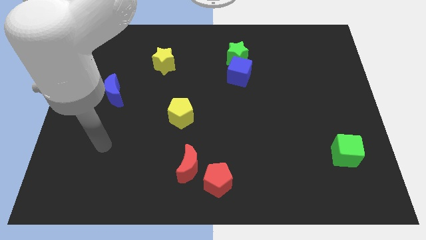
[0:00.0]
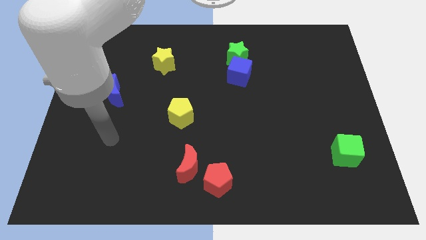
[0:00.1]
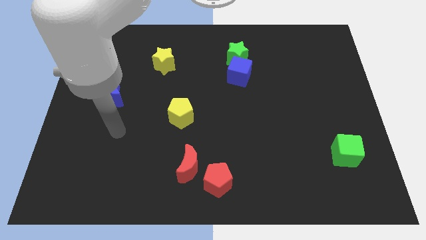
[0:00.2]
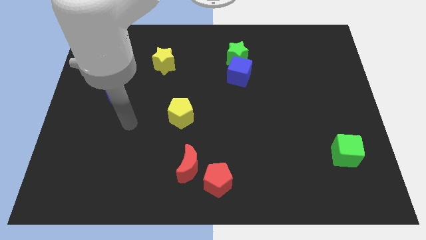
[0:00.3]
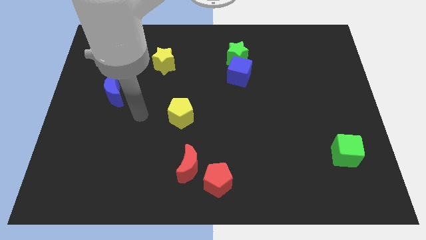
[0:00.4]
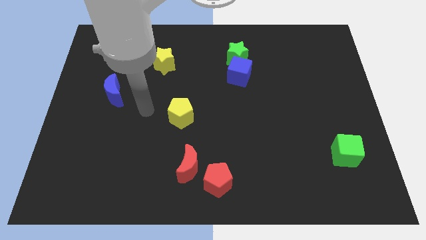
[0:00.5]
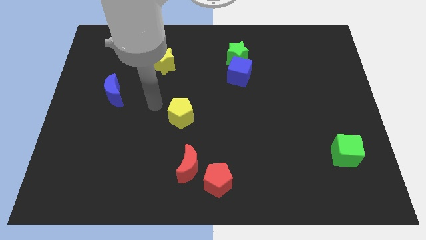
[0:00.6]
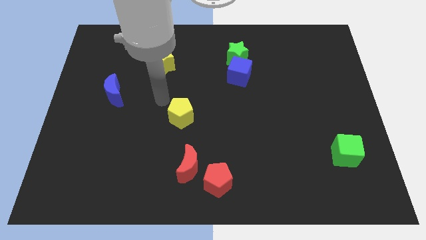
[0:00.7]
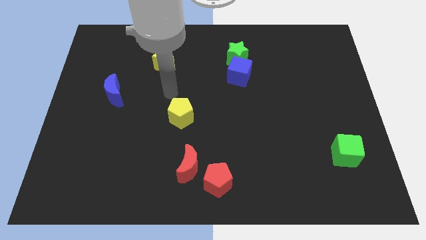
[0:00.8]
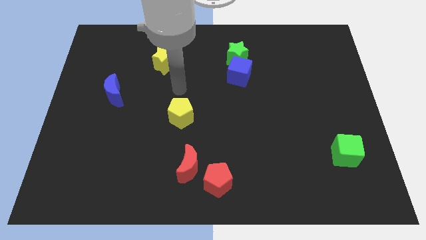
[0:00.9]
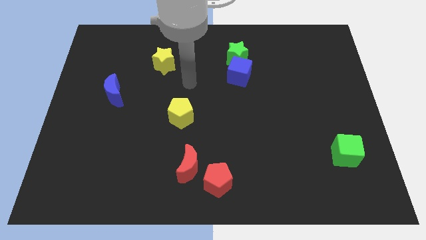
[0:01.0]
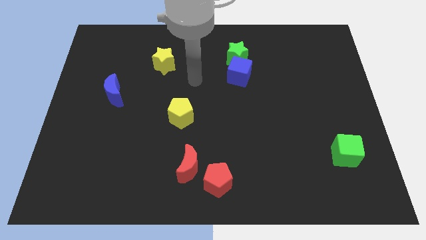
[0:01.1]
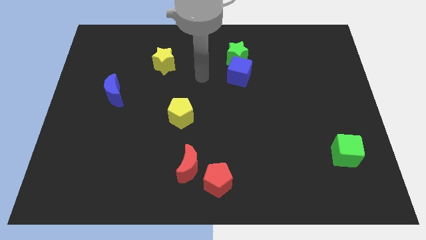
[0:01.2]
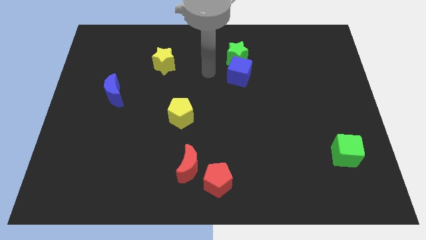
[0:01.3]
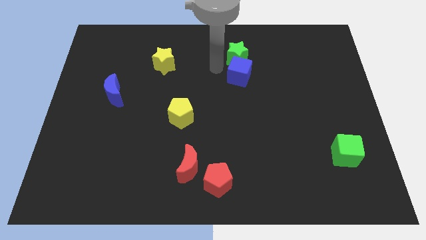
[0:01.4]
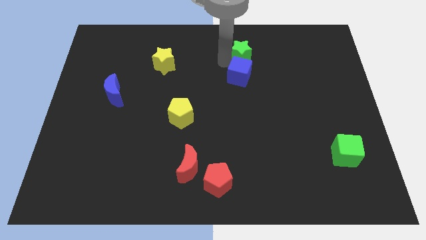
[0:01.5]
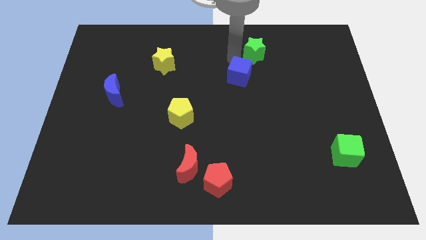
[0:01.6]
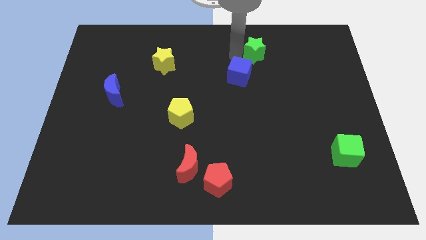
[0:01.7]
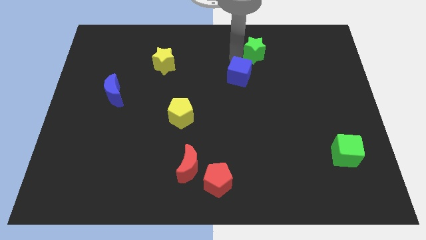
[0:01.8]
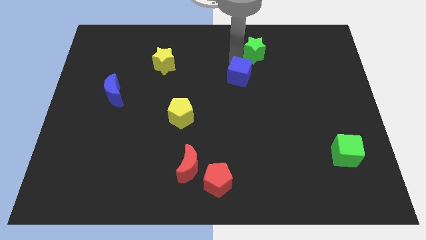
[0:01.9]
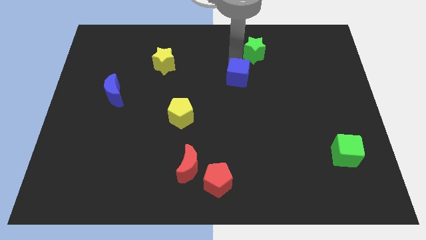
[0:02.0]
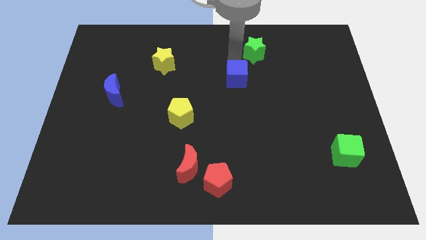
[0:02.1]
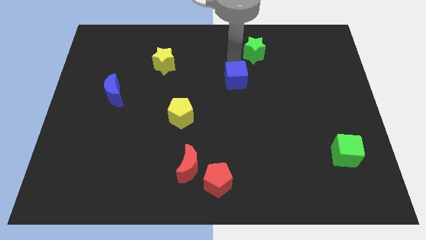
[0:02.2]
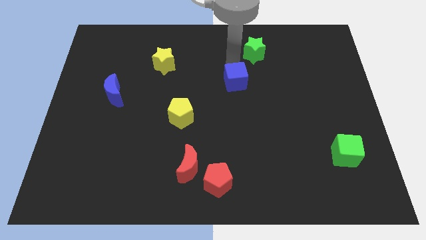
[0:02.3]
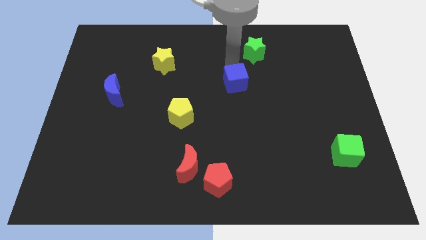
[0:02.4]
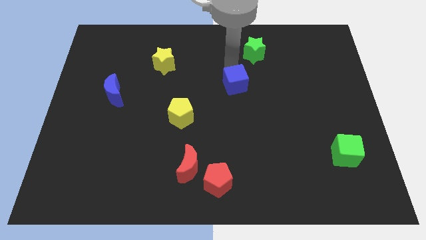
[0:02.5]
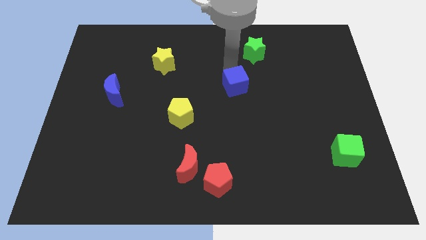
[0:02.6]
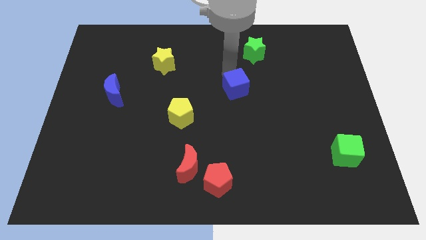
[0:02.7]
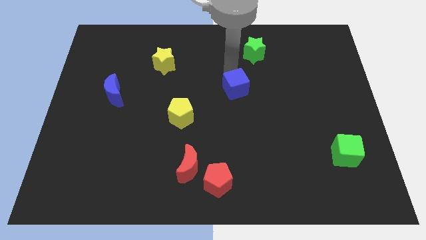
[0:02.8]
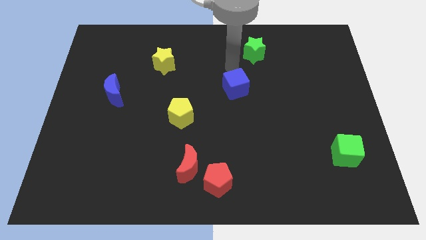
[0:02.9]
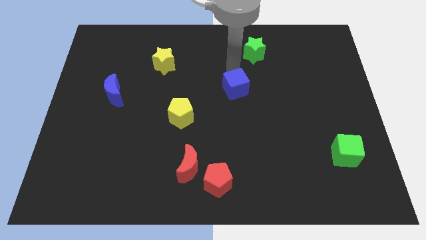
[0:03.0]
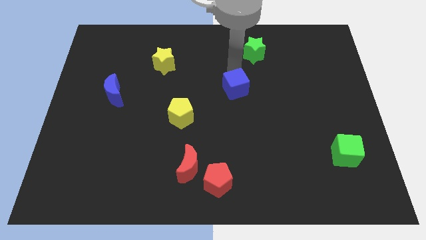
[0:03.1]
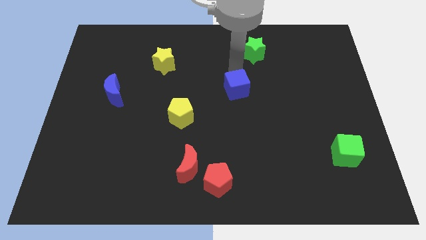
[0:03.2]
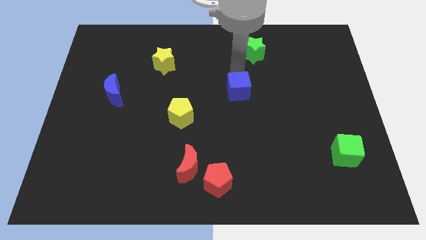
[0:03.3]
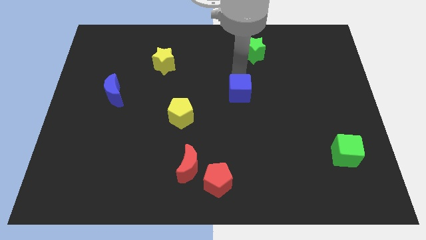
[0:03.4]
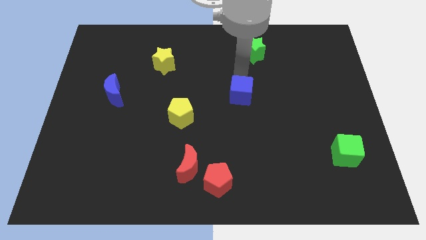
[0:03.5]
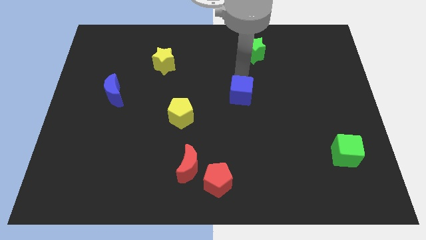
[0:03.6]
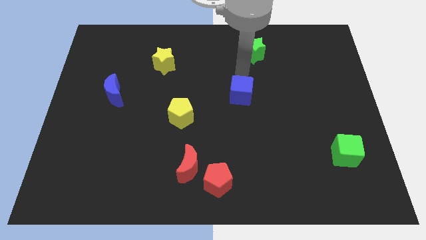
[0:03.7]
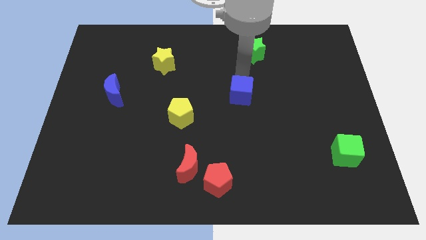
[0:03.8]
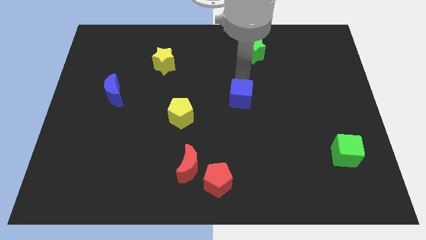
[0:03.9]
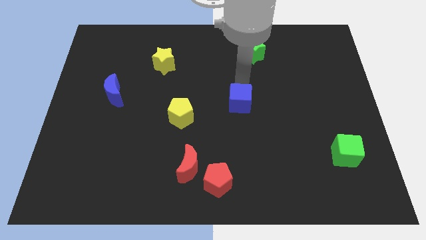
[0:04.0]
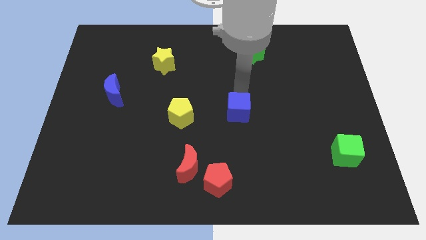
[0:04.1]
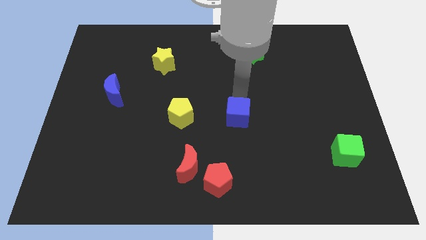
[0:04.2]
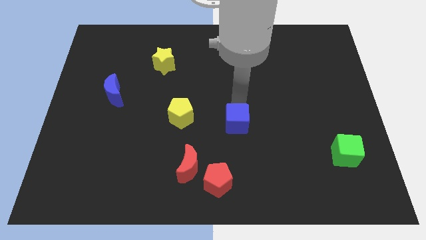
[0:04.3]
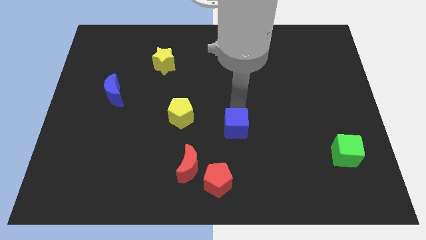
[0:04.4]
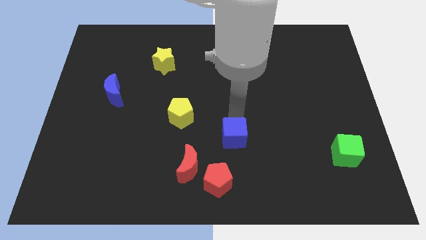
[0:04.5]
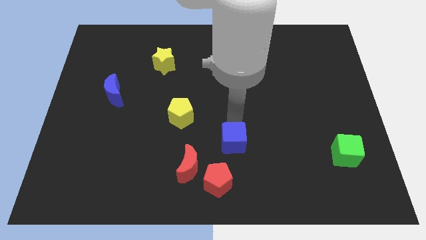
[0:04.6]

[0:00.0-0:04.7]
put the blue cube to the top right side of the red pentagon

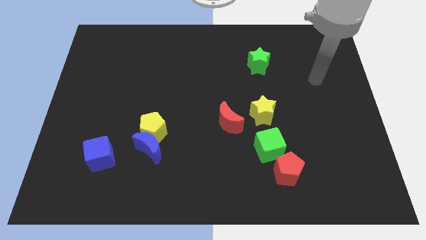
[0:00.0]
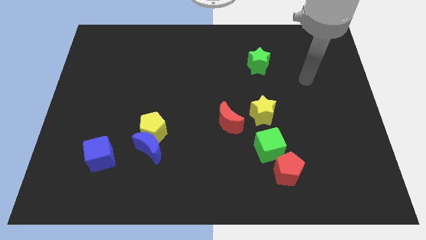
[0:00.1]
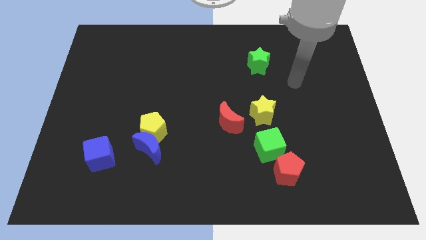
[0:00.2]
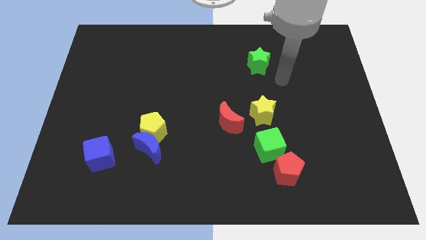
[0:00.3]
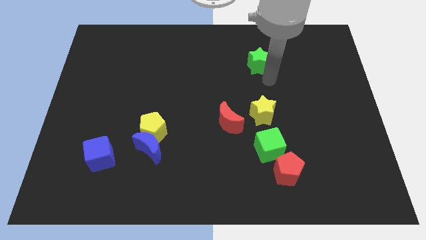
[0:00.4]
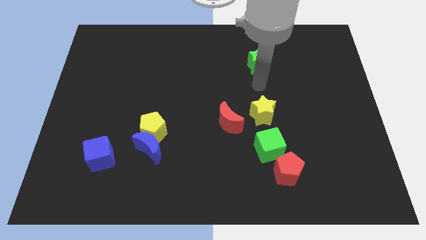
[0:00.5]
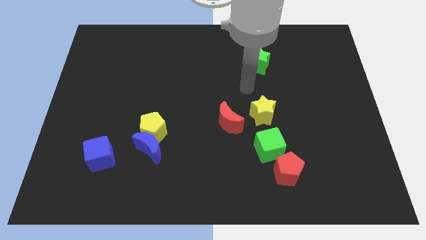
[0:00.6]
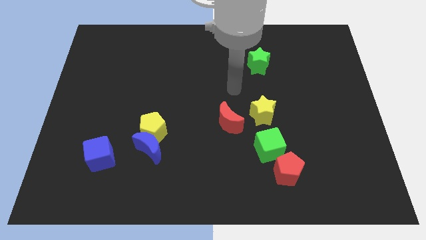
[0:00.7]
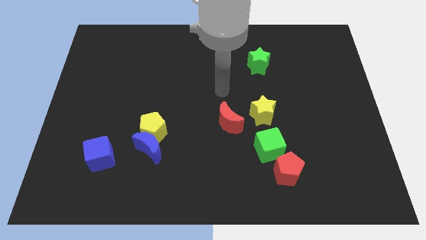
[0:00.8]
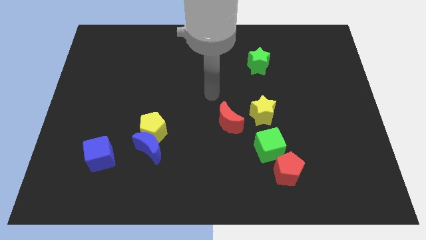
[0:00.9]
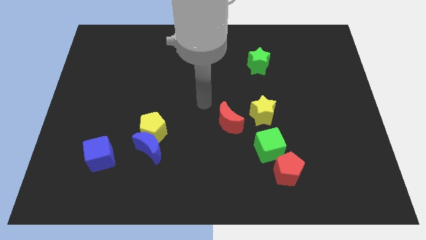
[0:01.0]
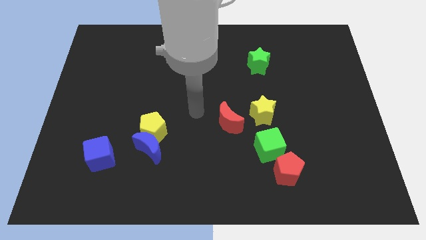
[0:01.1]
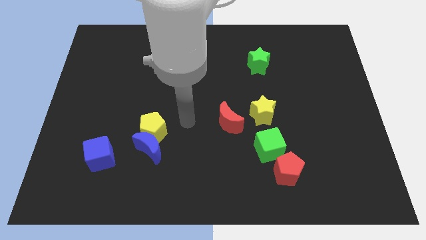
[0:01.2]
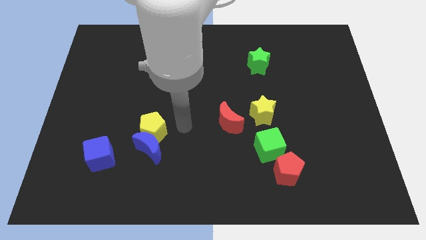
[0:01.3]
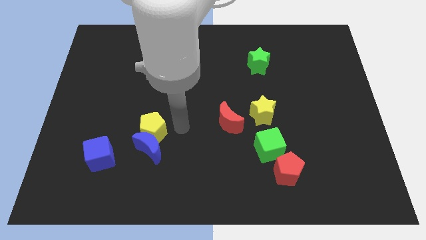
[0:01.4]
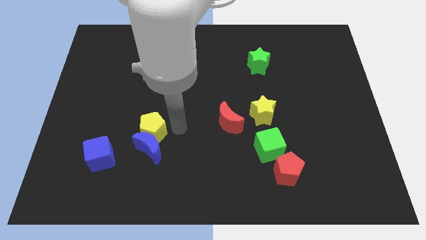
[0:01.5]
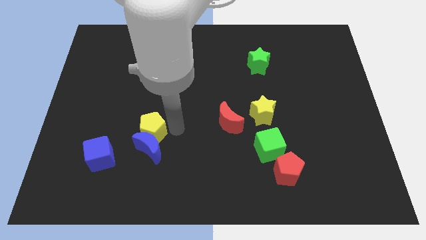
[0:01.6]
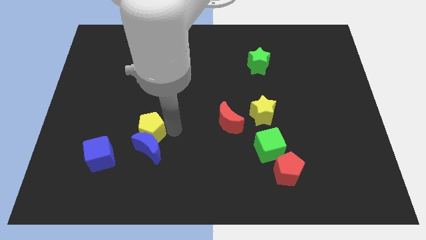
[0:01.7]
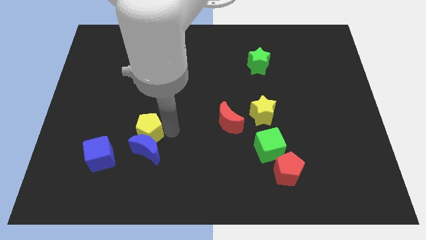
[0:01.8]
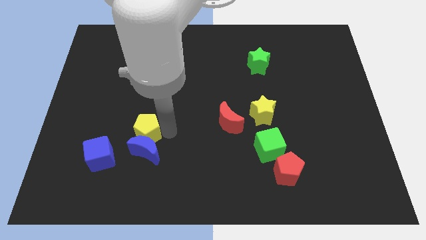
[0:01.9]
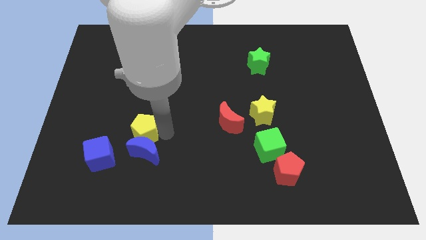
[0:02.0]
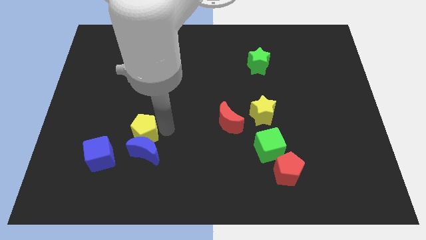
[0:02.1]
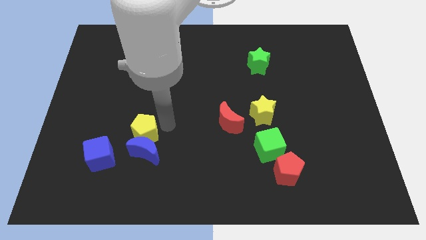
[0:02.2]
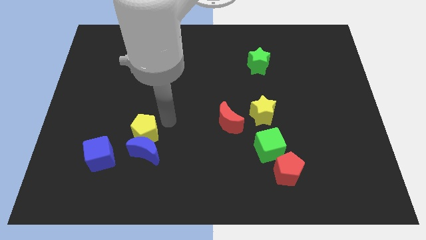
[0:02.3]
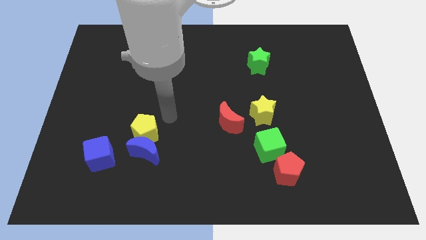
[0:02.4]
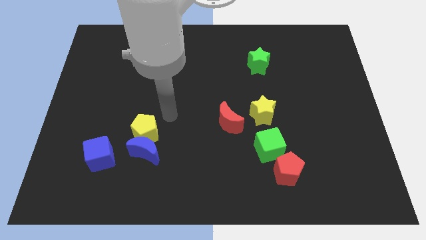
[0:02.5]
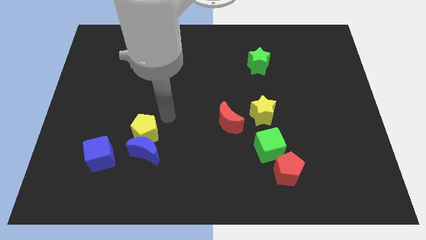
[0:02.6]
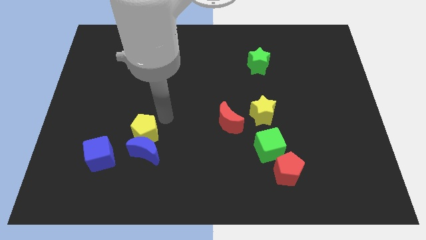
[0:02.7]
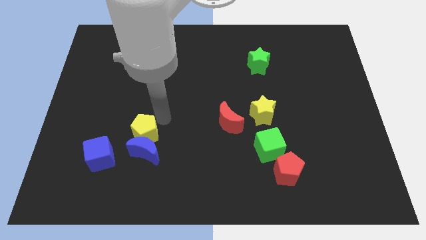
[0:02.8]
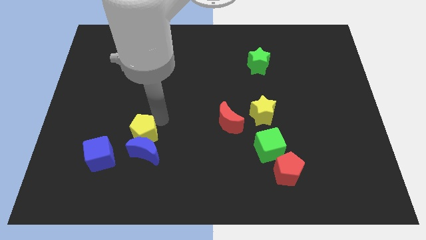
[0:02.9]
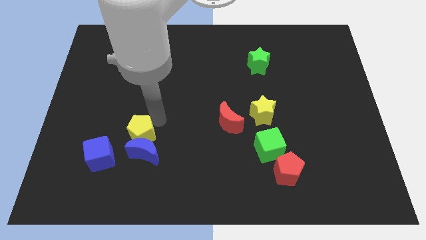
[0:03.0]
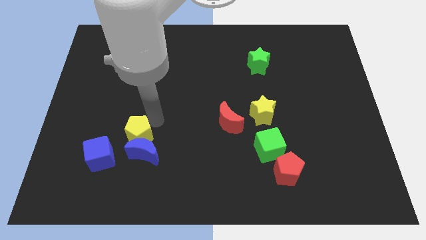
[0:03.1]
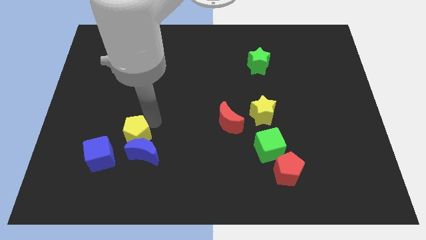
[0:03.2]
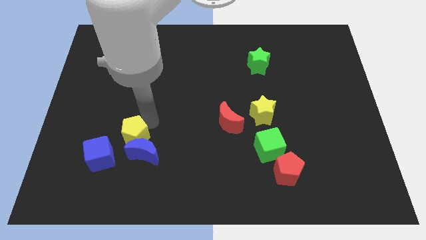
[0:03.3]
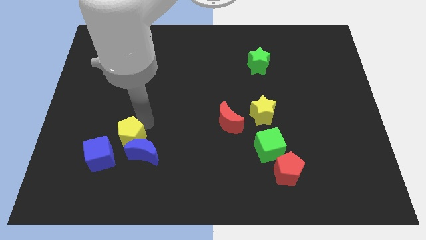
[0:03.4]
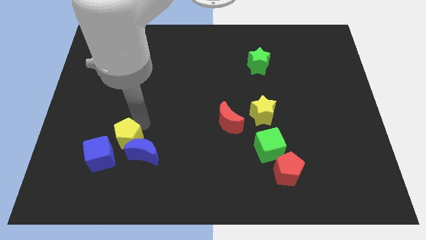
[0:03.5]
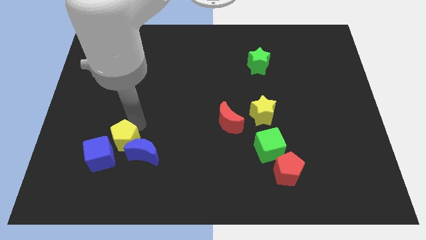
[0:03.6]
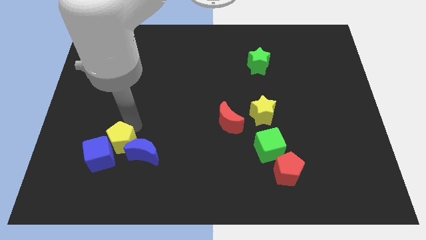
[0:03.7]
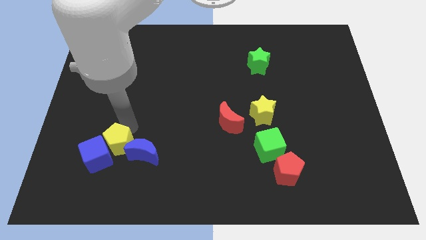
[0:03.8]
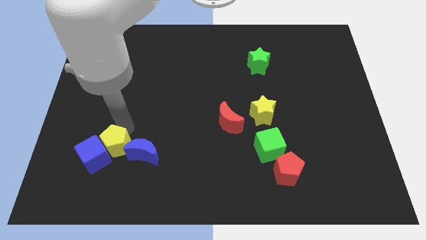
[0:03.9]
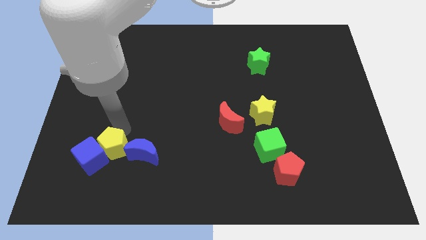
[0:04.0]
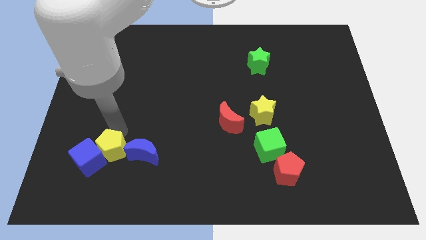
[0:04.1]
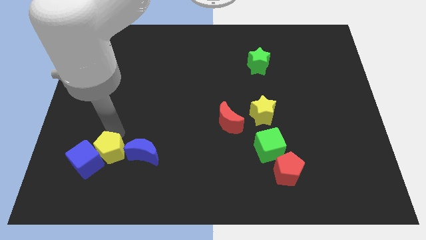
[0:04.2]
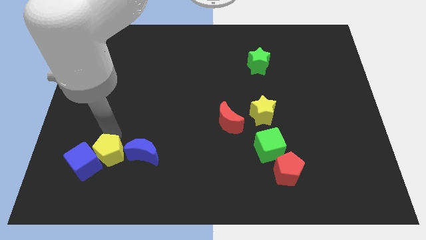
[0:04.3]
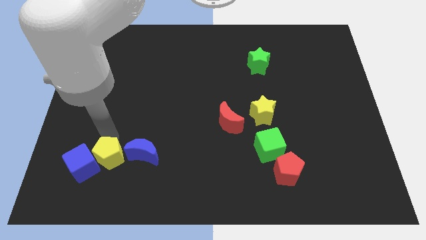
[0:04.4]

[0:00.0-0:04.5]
move the yellow pentagon to the bottom left side of the blue moon
